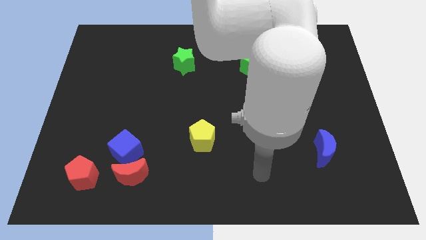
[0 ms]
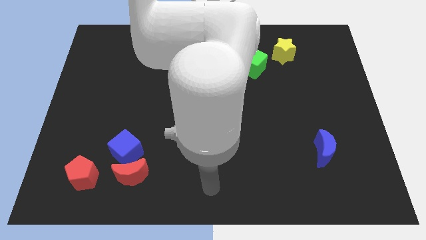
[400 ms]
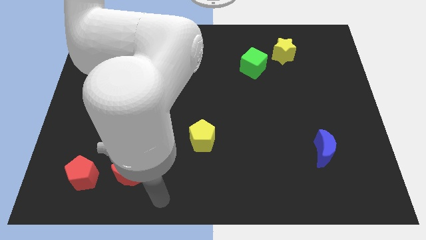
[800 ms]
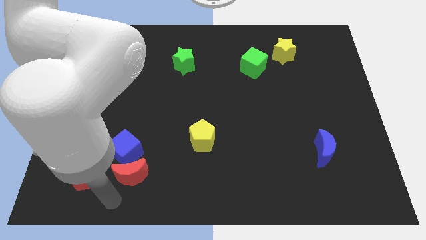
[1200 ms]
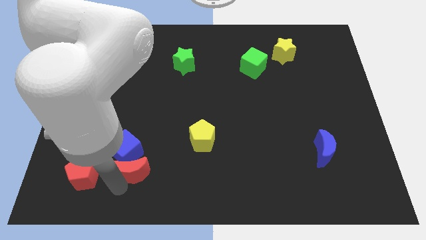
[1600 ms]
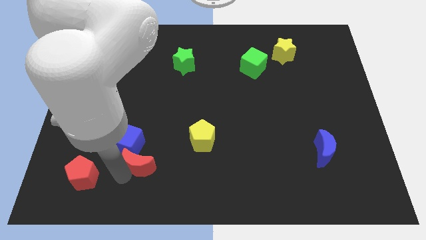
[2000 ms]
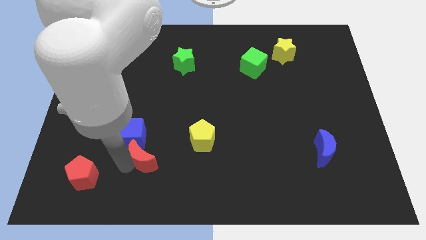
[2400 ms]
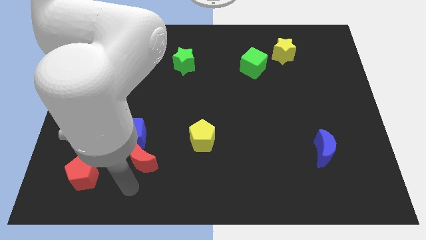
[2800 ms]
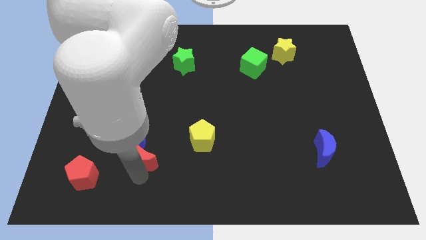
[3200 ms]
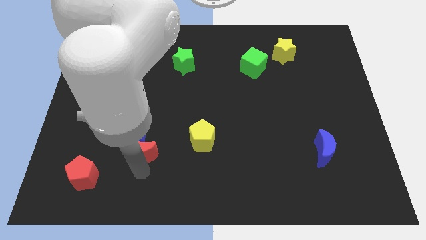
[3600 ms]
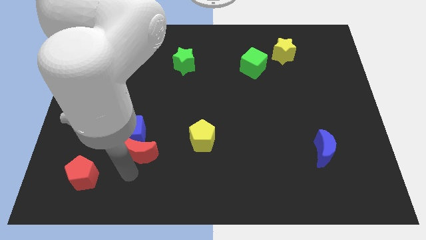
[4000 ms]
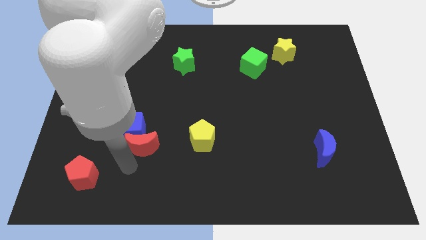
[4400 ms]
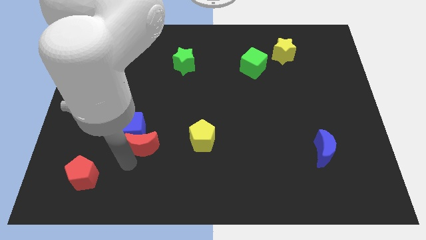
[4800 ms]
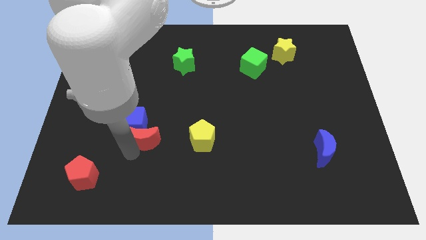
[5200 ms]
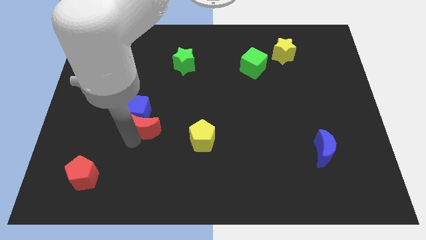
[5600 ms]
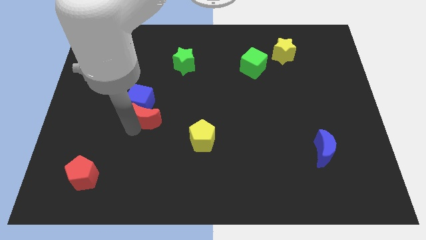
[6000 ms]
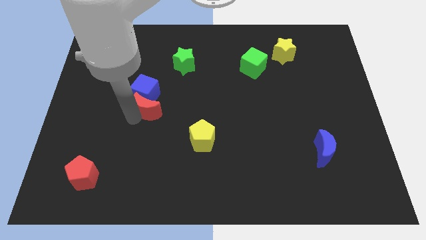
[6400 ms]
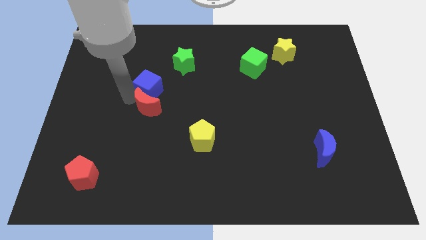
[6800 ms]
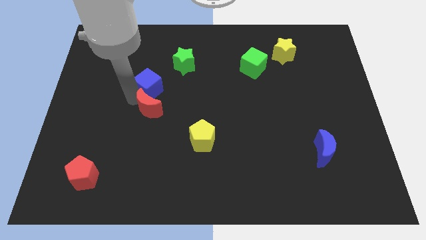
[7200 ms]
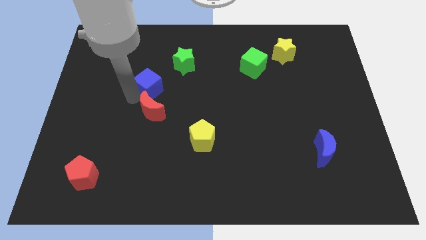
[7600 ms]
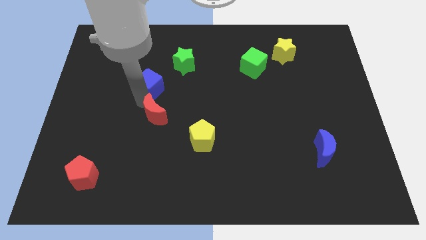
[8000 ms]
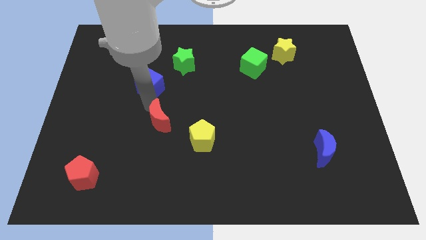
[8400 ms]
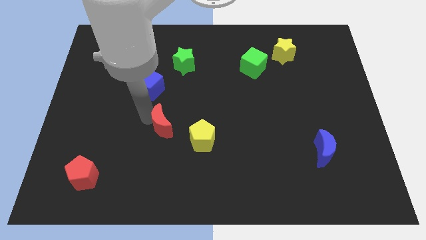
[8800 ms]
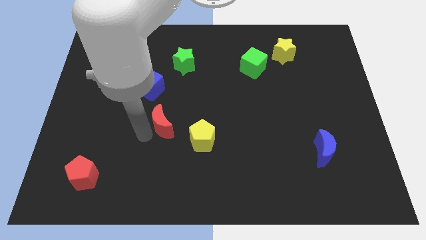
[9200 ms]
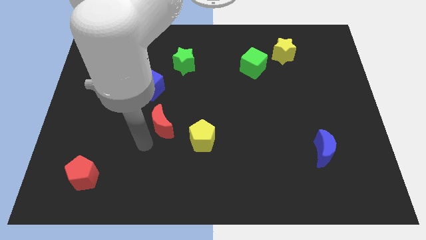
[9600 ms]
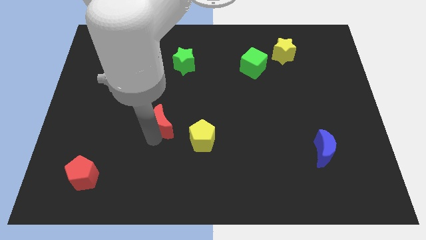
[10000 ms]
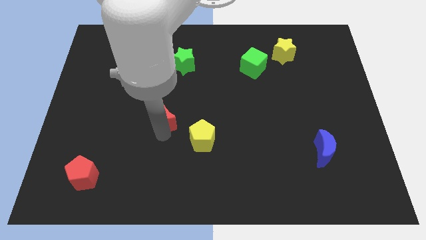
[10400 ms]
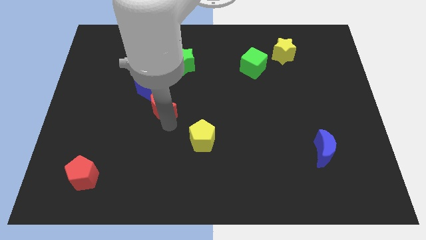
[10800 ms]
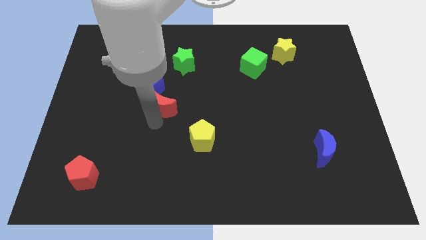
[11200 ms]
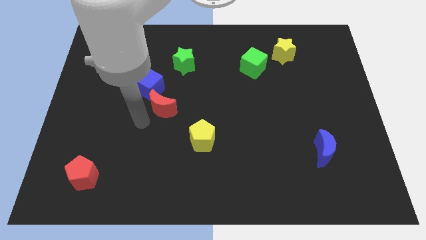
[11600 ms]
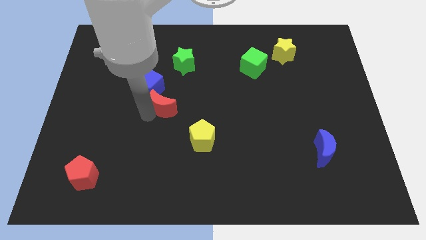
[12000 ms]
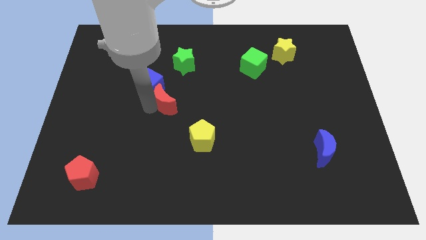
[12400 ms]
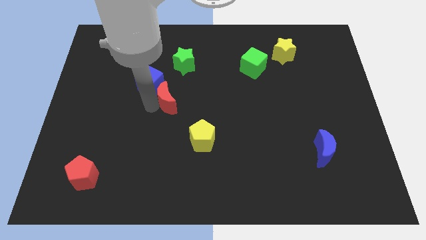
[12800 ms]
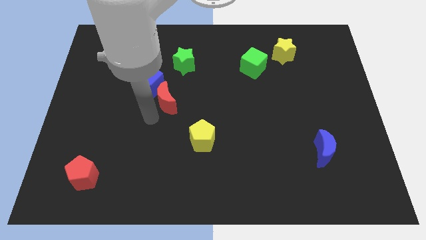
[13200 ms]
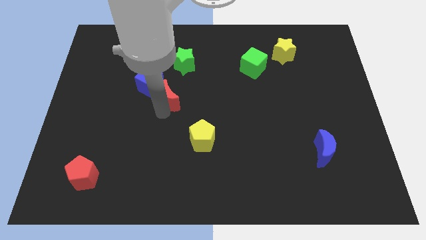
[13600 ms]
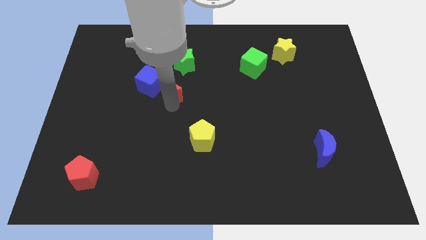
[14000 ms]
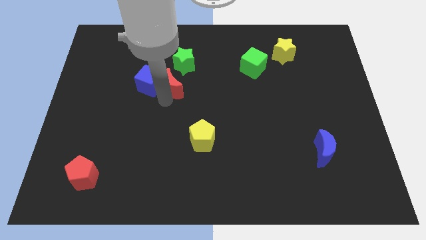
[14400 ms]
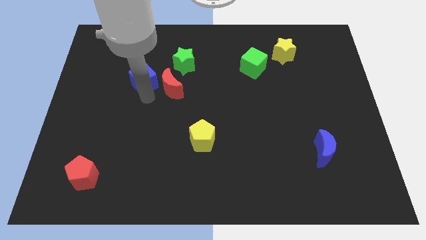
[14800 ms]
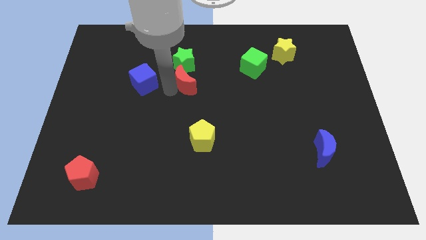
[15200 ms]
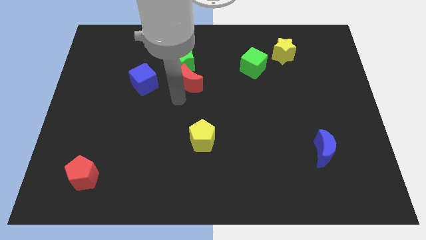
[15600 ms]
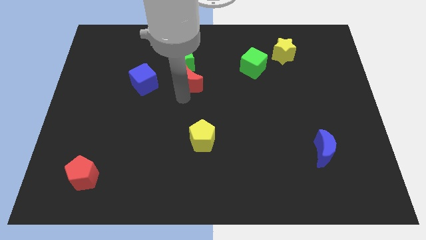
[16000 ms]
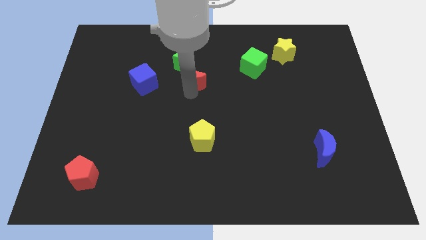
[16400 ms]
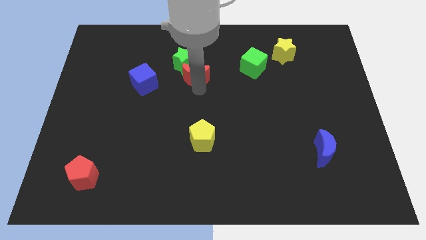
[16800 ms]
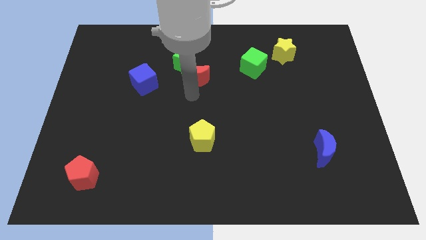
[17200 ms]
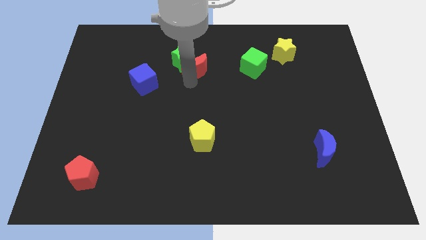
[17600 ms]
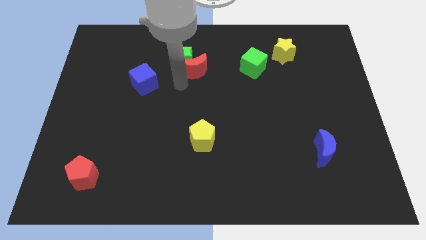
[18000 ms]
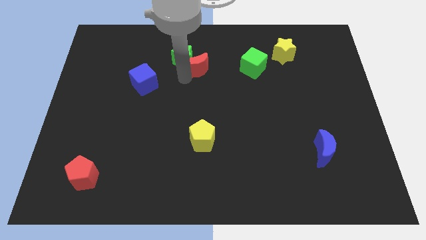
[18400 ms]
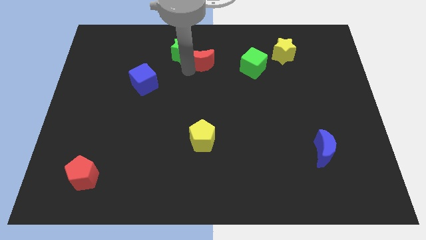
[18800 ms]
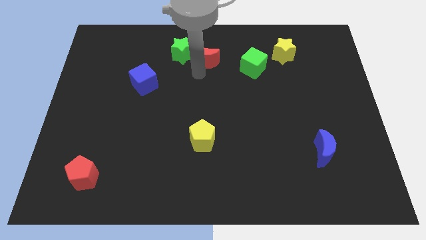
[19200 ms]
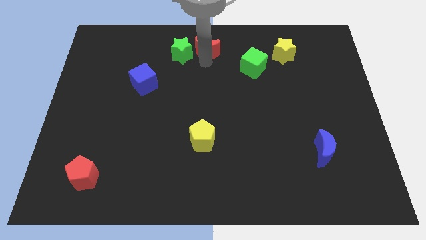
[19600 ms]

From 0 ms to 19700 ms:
move the red moon to the top

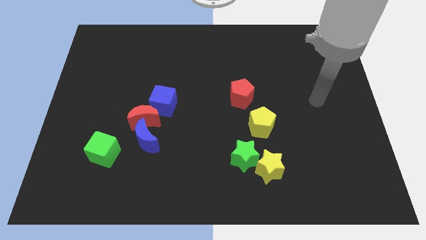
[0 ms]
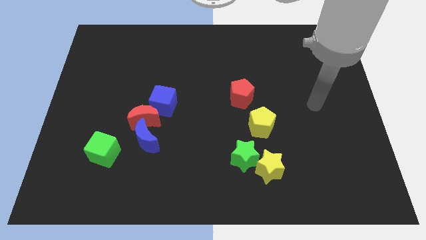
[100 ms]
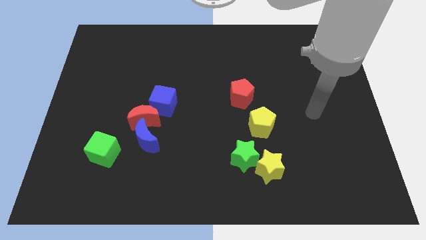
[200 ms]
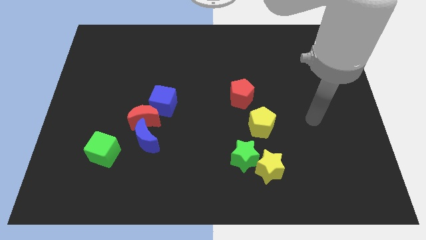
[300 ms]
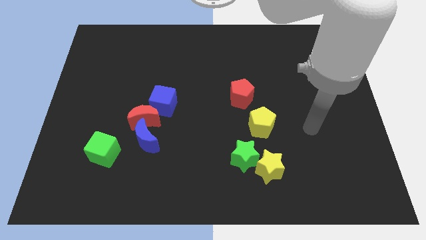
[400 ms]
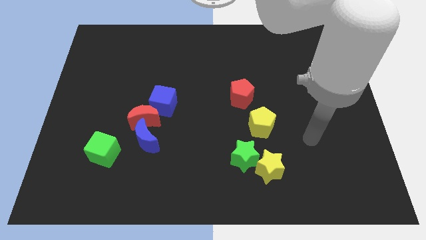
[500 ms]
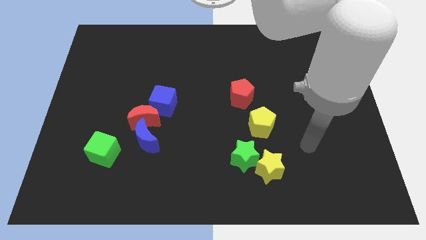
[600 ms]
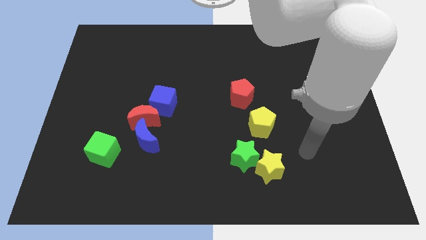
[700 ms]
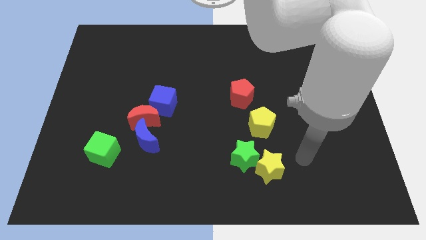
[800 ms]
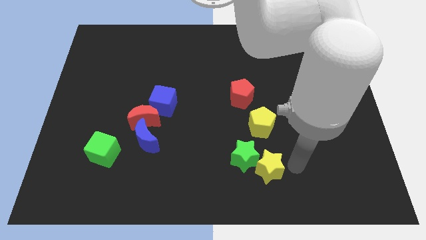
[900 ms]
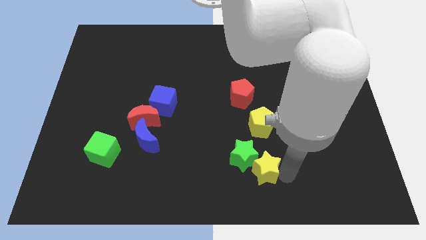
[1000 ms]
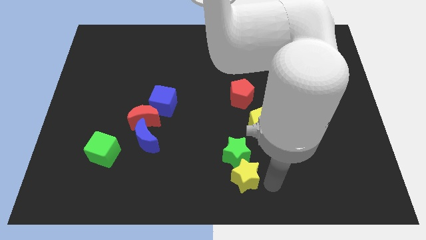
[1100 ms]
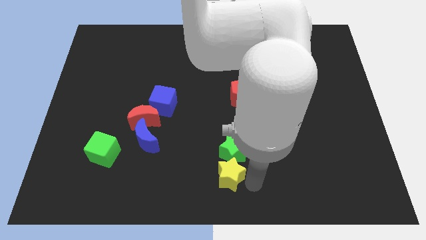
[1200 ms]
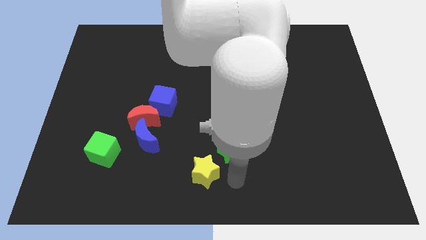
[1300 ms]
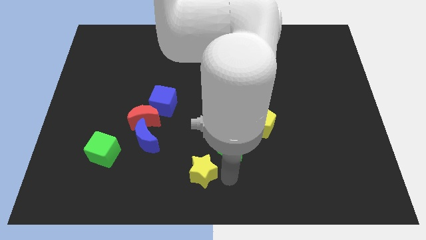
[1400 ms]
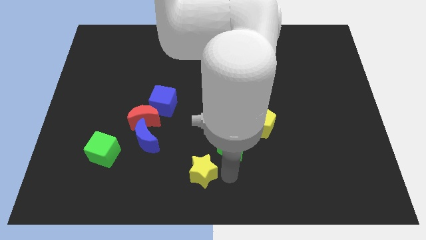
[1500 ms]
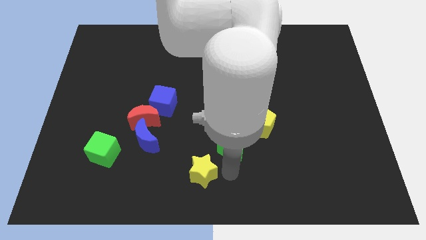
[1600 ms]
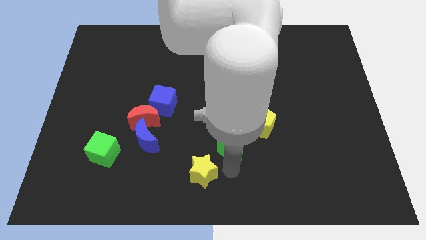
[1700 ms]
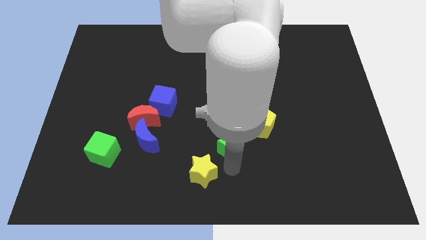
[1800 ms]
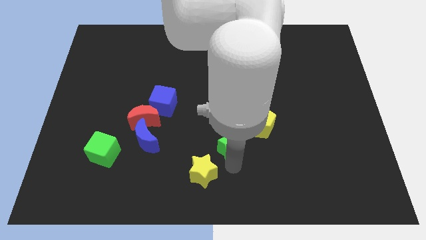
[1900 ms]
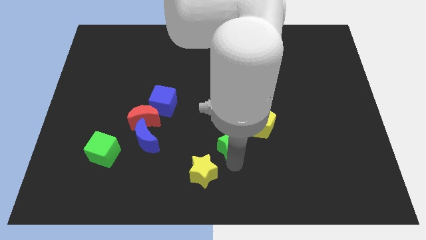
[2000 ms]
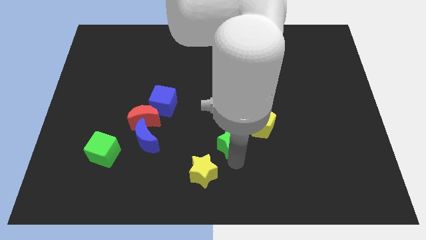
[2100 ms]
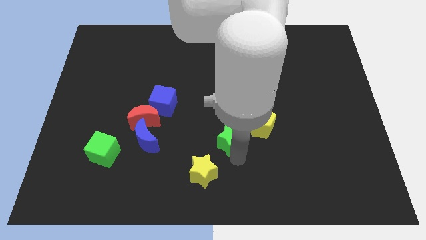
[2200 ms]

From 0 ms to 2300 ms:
move the green star to the middle
